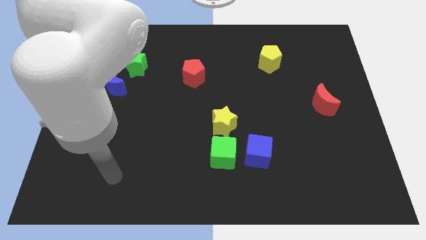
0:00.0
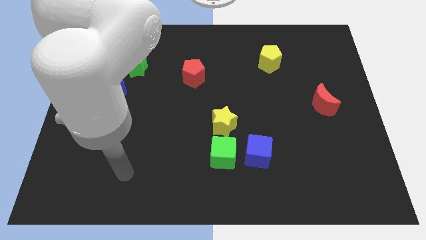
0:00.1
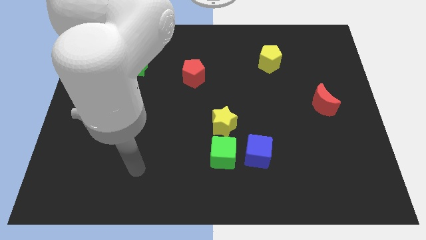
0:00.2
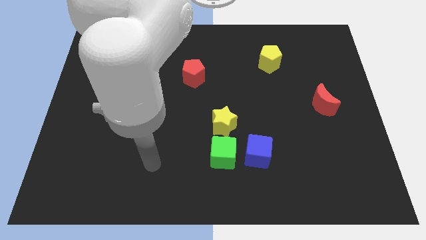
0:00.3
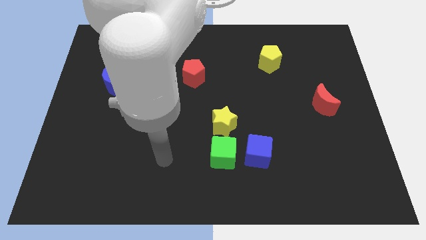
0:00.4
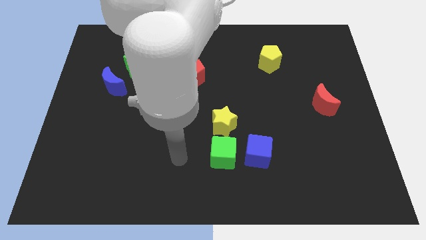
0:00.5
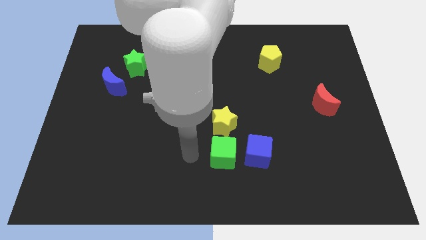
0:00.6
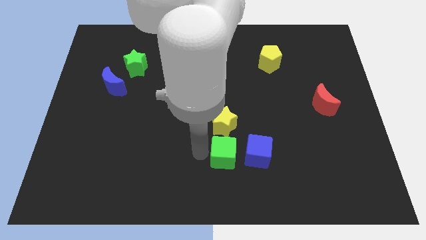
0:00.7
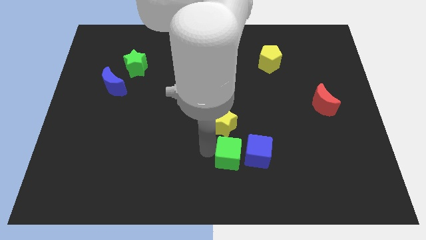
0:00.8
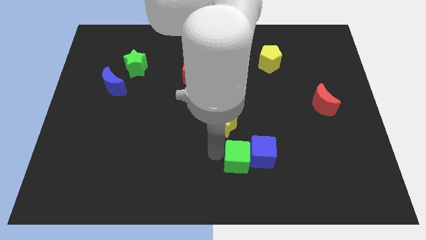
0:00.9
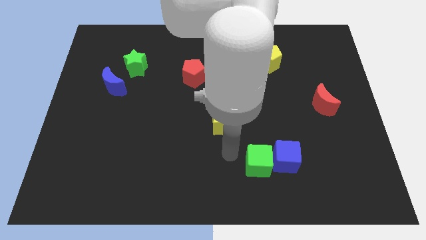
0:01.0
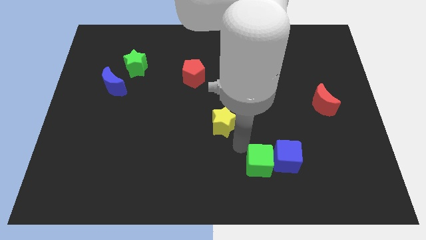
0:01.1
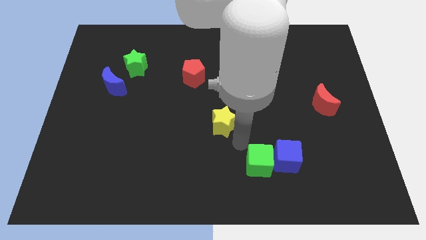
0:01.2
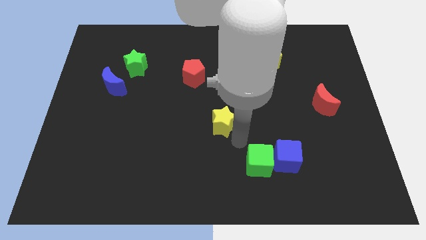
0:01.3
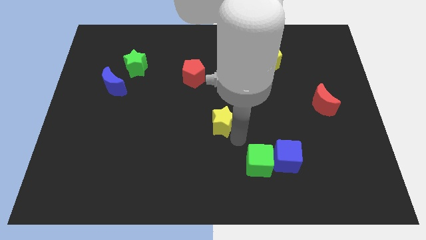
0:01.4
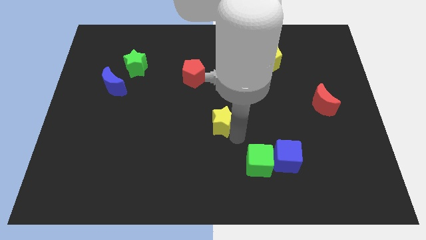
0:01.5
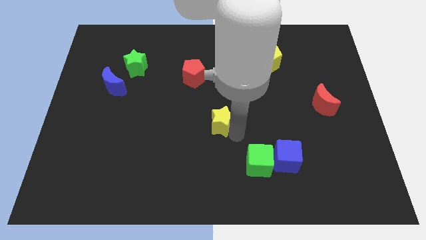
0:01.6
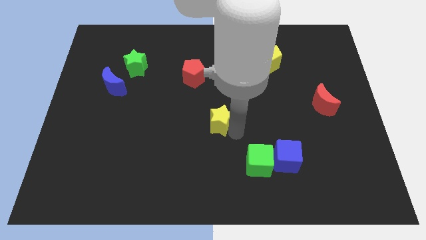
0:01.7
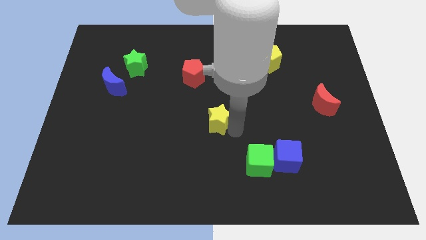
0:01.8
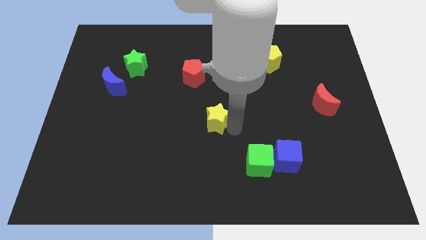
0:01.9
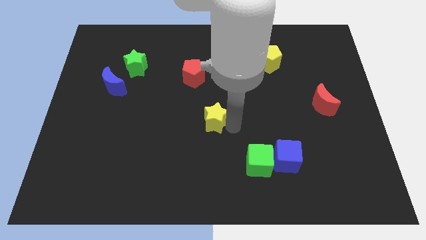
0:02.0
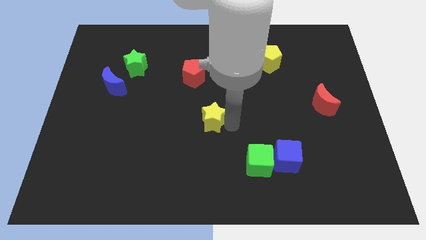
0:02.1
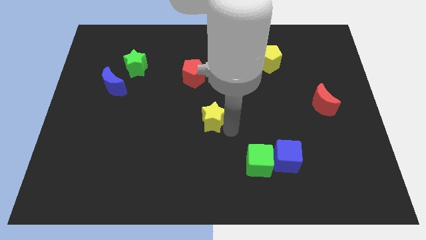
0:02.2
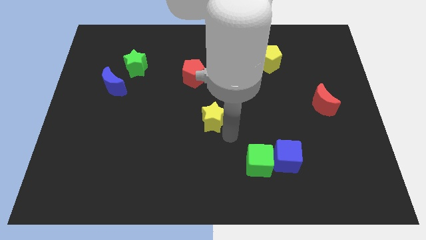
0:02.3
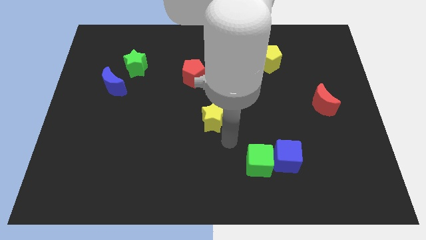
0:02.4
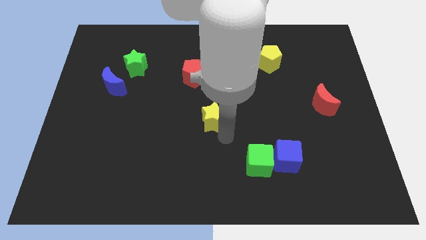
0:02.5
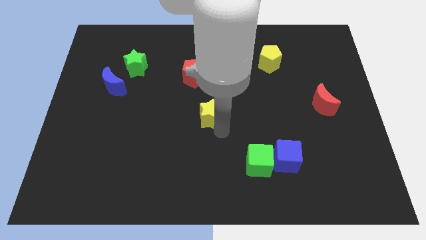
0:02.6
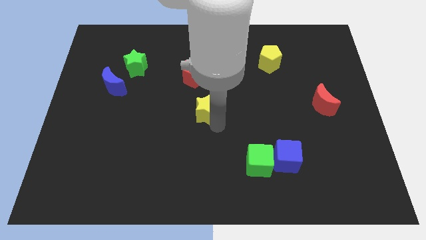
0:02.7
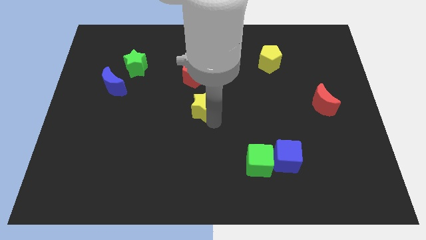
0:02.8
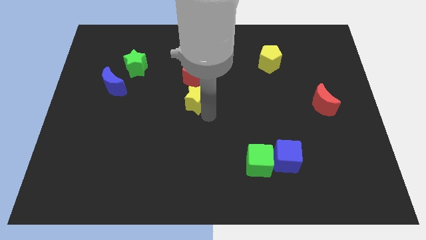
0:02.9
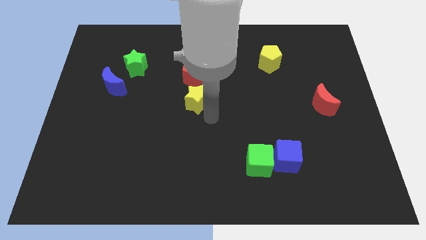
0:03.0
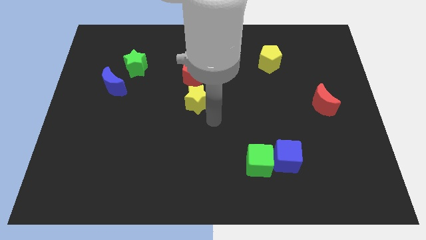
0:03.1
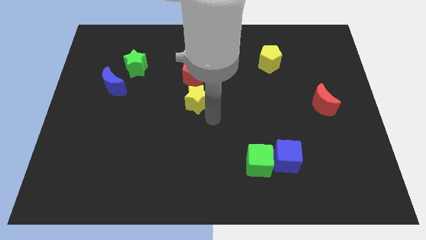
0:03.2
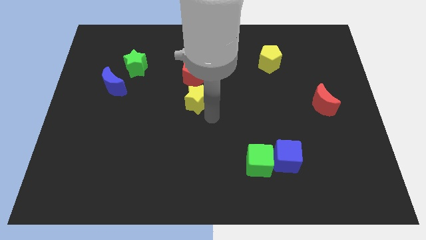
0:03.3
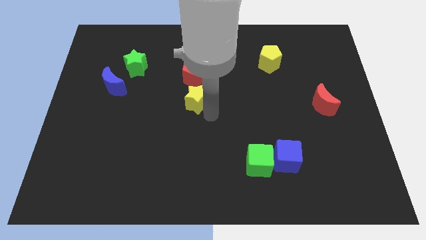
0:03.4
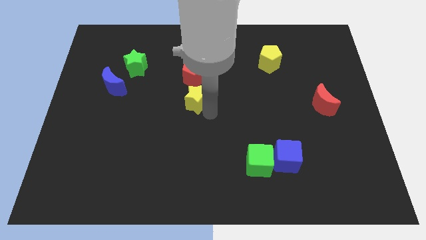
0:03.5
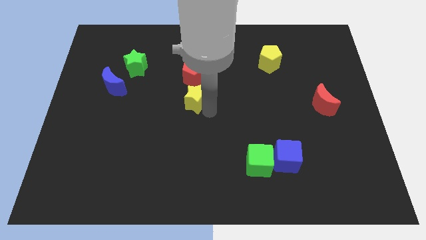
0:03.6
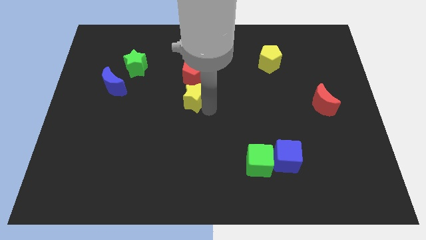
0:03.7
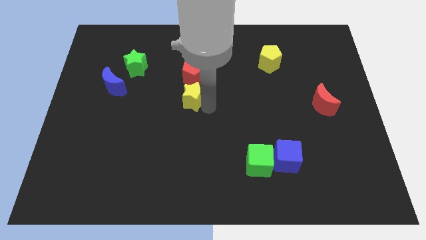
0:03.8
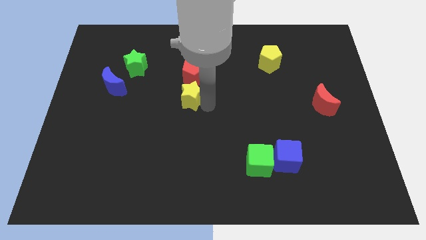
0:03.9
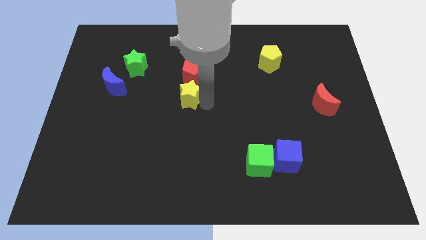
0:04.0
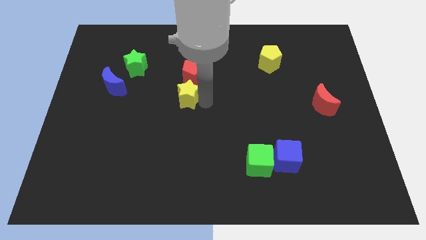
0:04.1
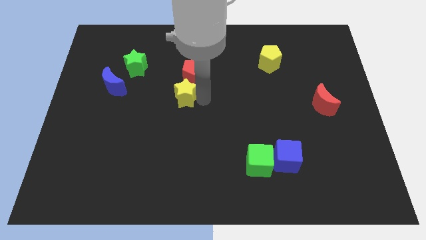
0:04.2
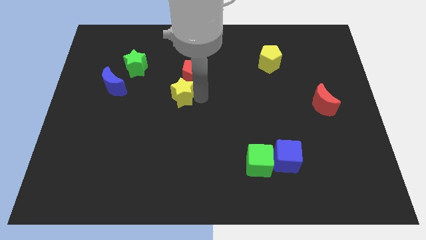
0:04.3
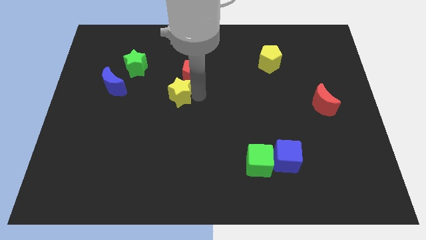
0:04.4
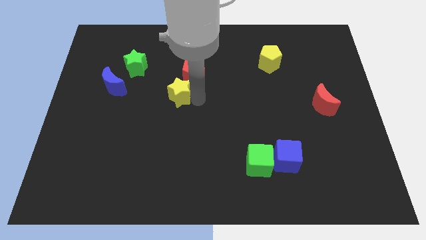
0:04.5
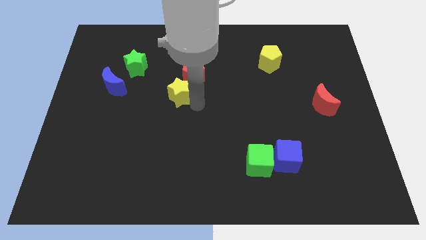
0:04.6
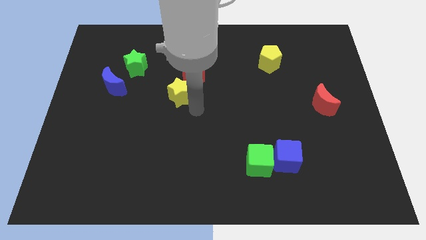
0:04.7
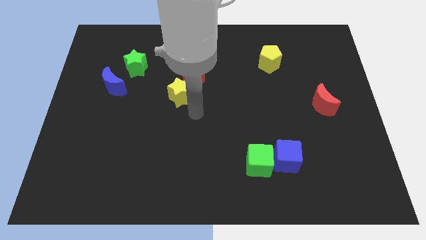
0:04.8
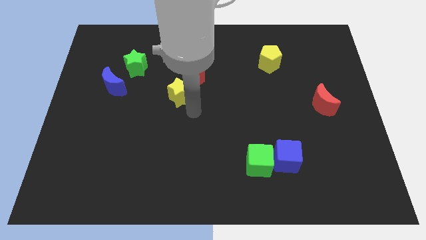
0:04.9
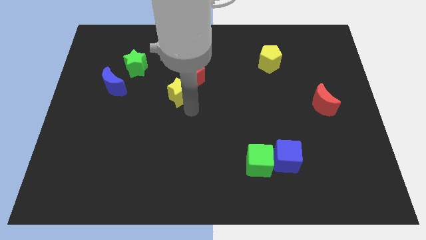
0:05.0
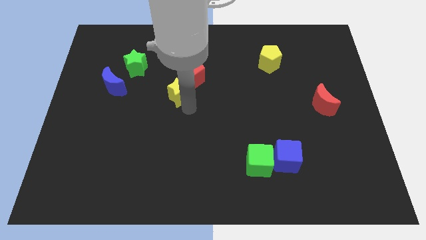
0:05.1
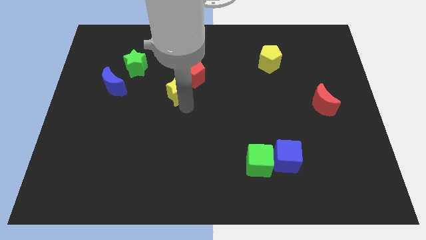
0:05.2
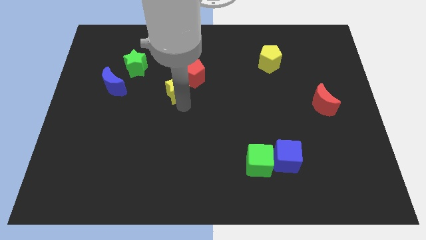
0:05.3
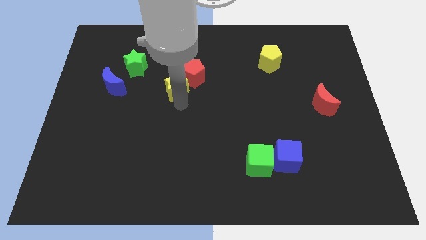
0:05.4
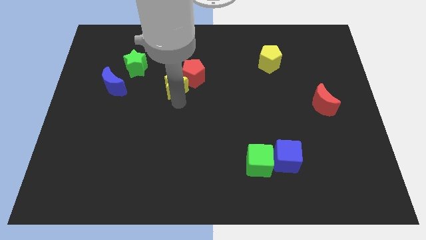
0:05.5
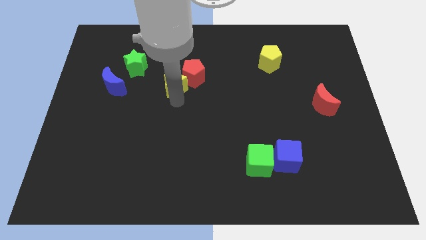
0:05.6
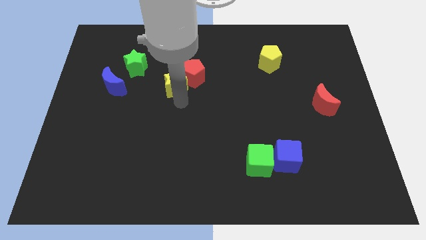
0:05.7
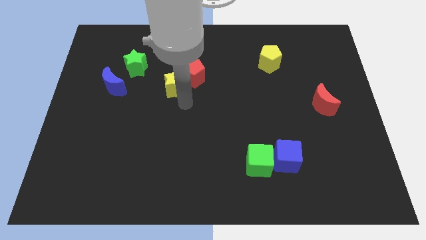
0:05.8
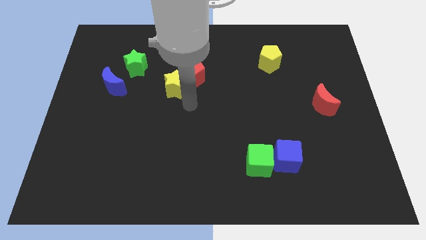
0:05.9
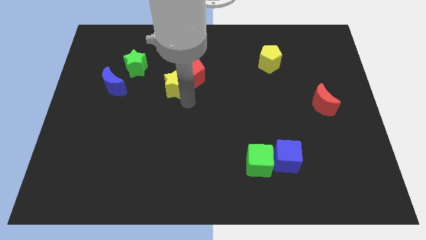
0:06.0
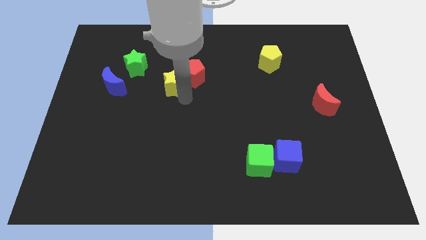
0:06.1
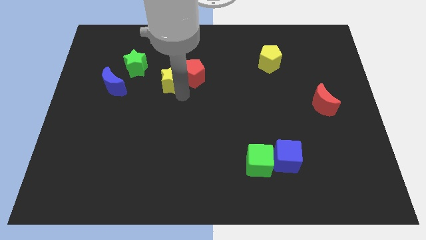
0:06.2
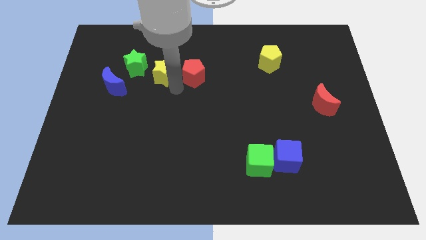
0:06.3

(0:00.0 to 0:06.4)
push the yellow star up and to the left

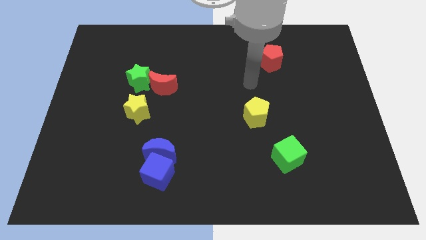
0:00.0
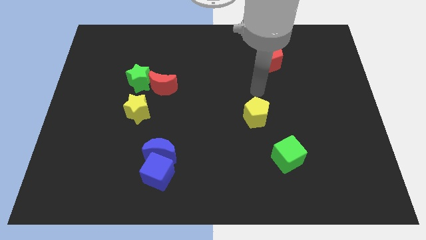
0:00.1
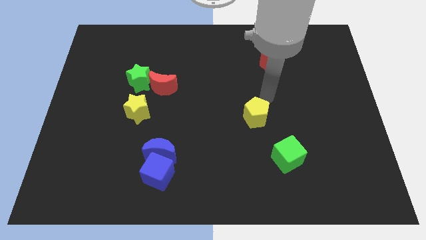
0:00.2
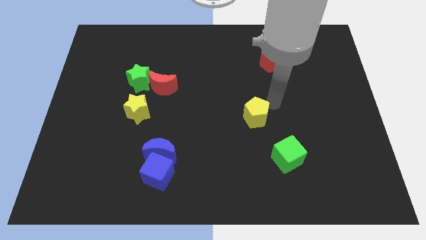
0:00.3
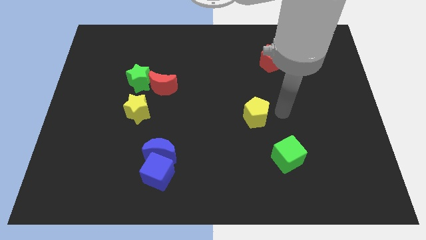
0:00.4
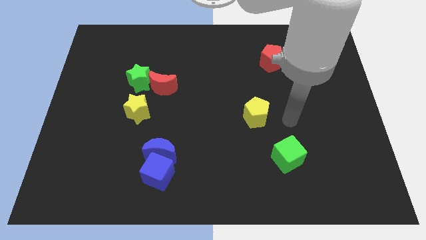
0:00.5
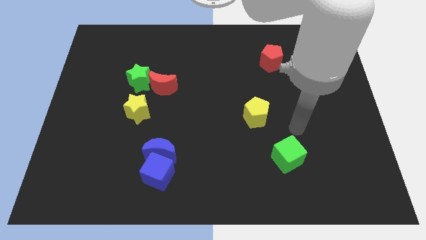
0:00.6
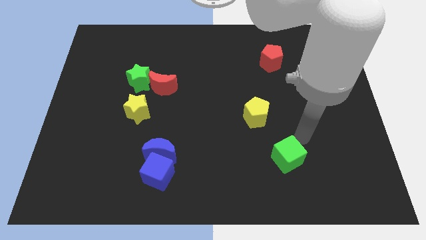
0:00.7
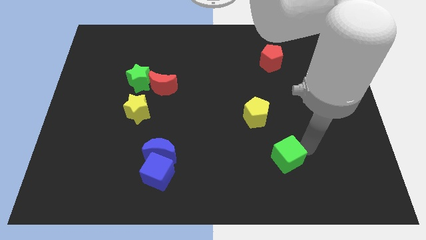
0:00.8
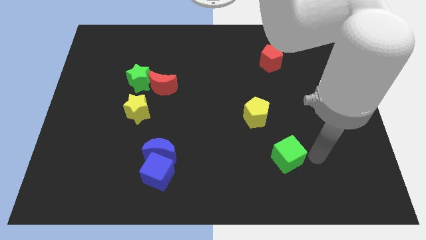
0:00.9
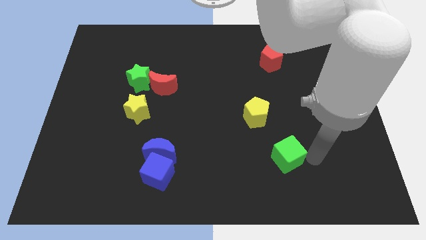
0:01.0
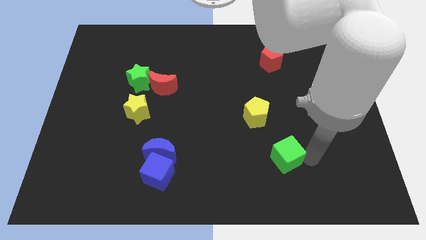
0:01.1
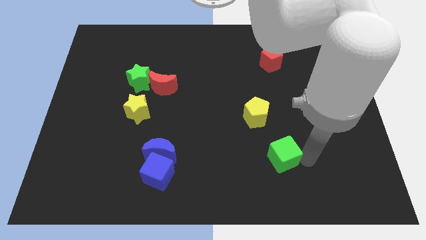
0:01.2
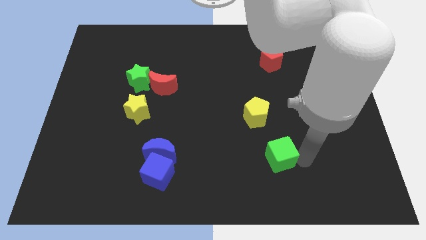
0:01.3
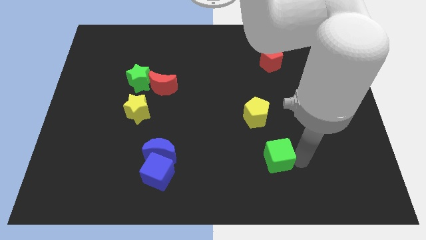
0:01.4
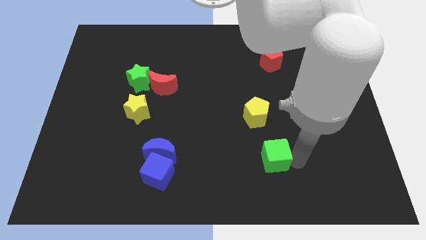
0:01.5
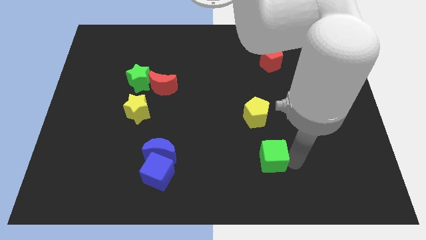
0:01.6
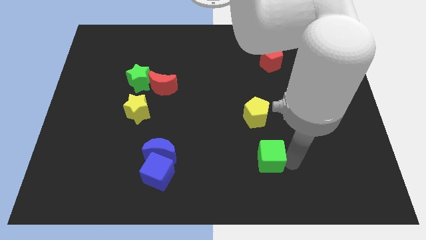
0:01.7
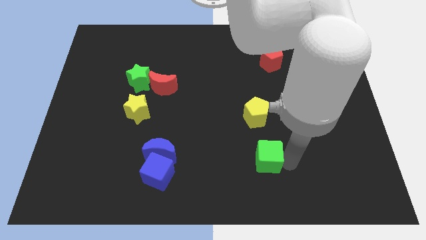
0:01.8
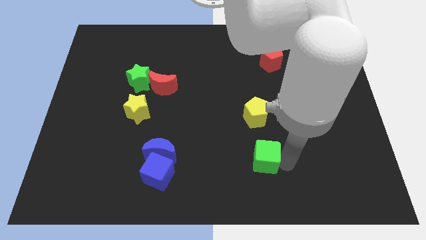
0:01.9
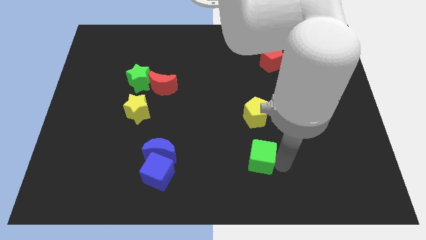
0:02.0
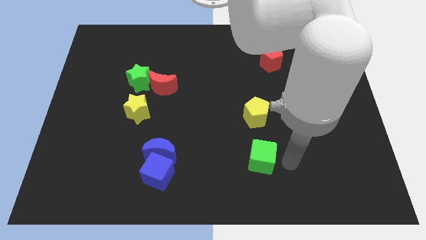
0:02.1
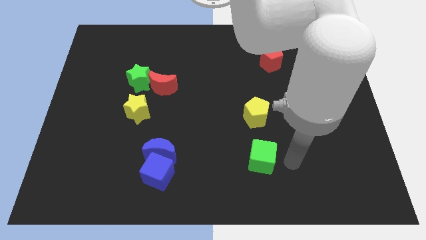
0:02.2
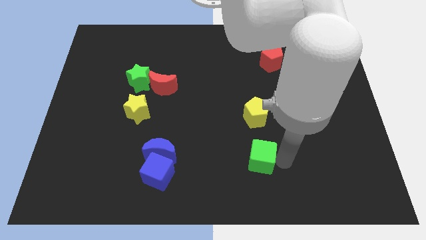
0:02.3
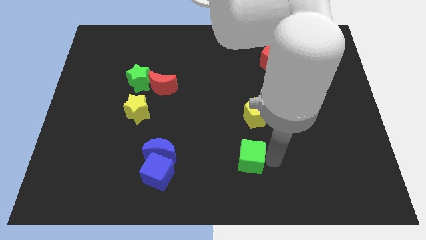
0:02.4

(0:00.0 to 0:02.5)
slide the green cube to the left somewhat
